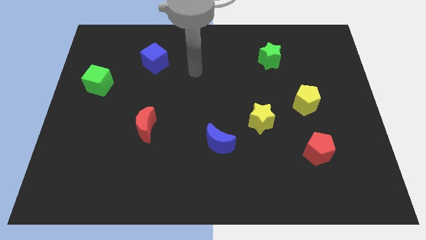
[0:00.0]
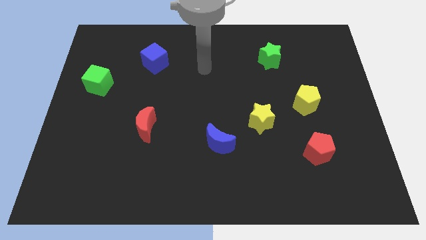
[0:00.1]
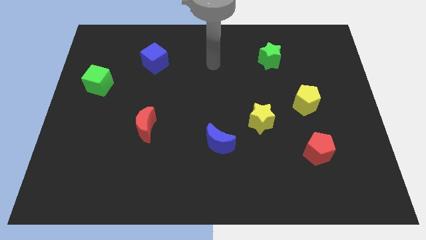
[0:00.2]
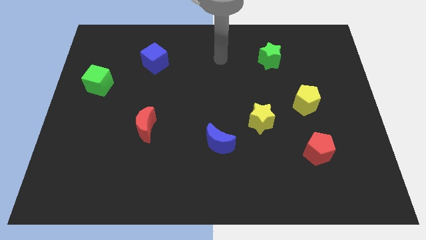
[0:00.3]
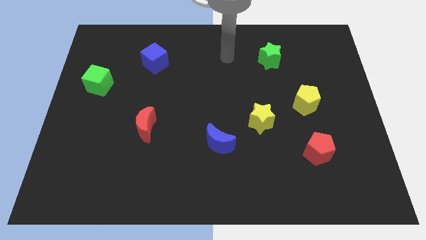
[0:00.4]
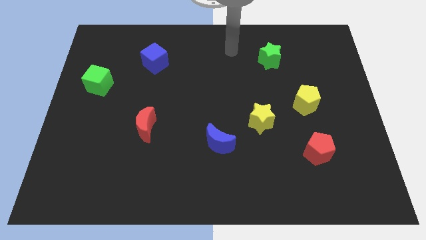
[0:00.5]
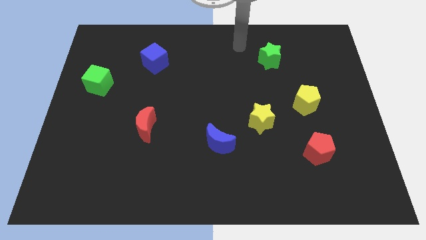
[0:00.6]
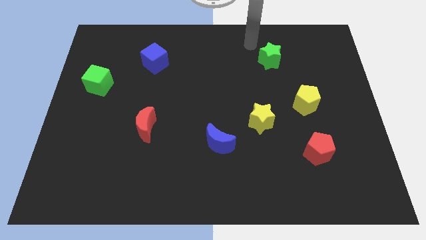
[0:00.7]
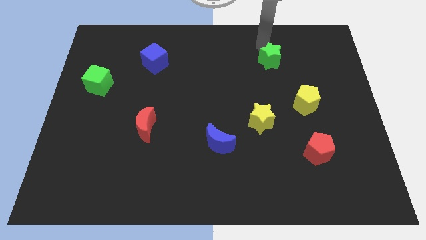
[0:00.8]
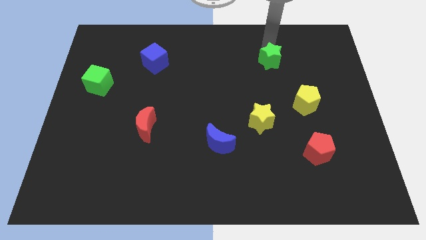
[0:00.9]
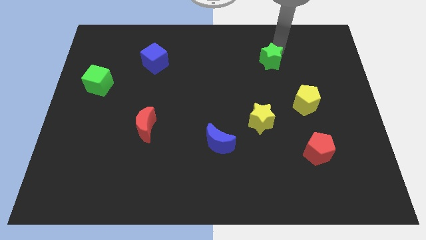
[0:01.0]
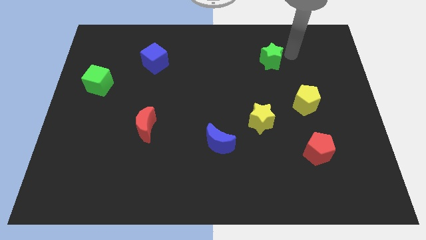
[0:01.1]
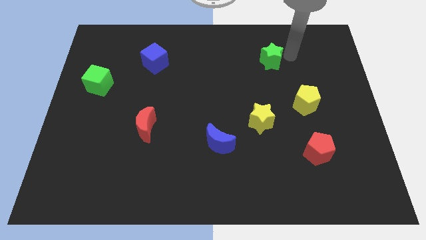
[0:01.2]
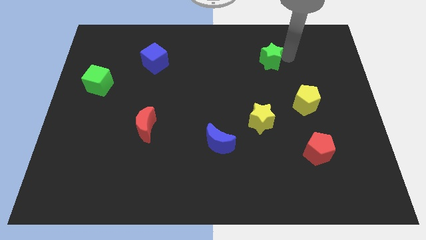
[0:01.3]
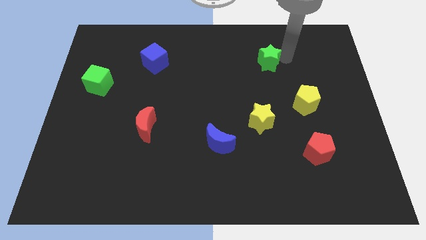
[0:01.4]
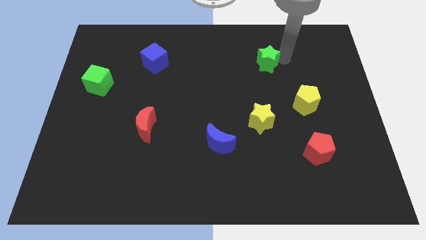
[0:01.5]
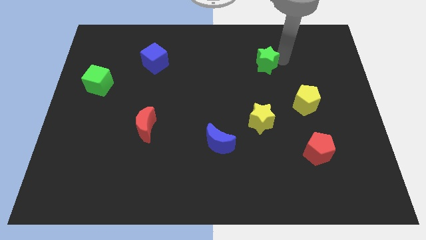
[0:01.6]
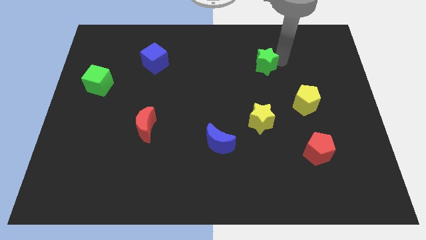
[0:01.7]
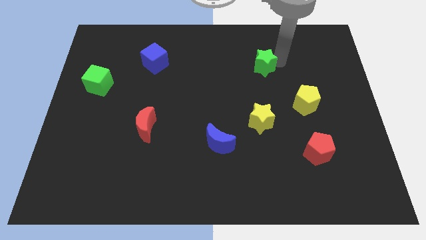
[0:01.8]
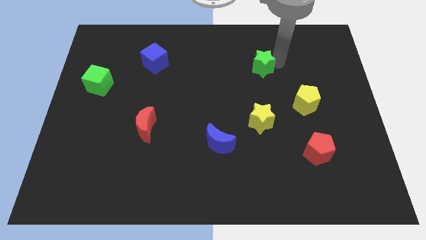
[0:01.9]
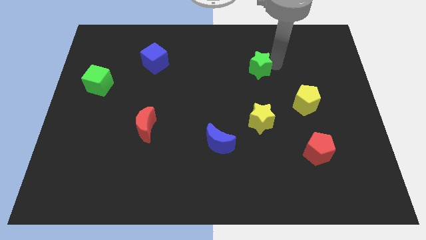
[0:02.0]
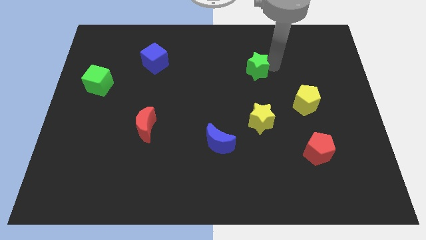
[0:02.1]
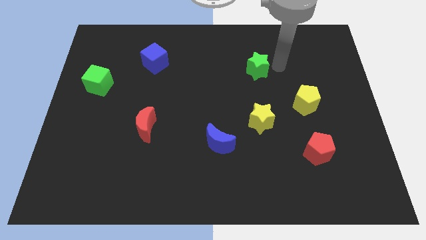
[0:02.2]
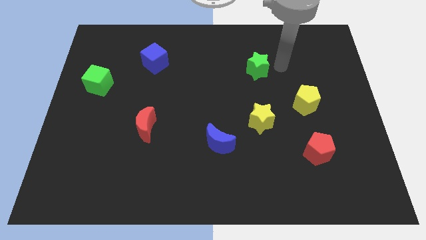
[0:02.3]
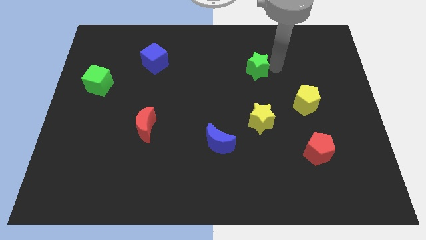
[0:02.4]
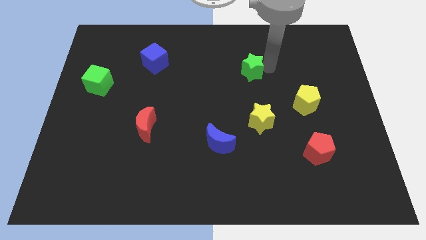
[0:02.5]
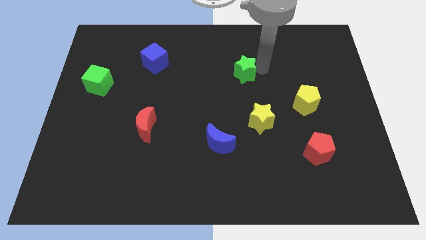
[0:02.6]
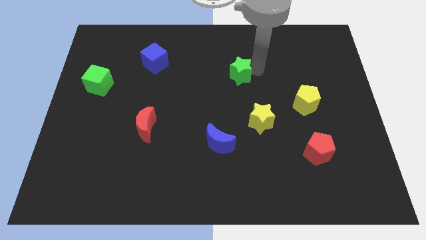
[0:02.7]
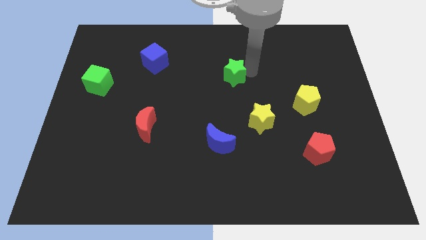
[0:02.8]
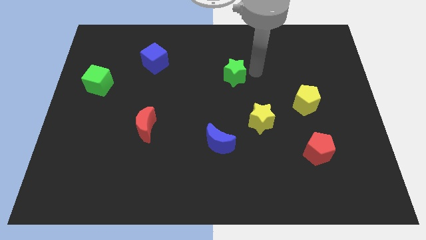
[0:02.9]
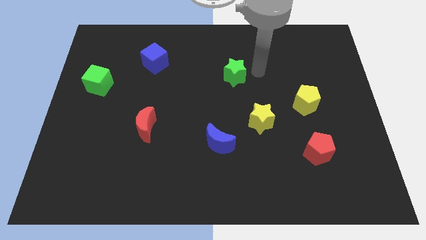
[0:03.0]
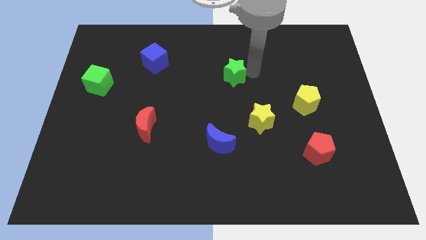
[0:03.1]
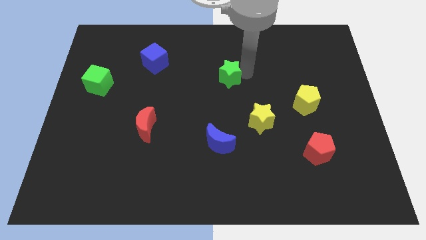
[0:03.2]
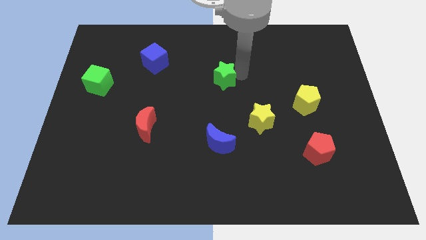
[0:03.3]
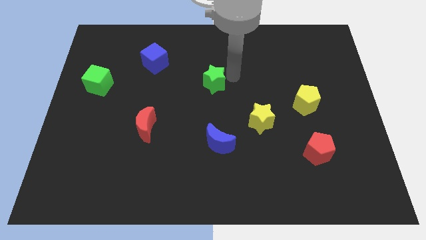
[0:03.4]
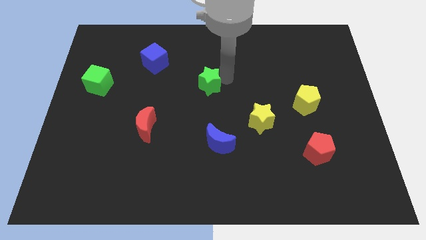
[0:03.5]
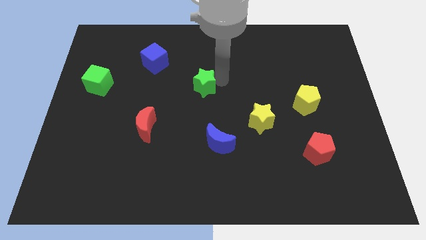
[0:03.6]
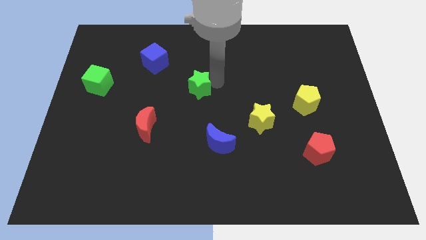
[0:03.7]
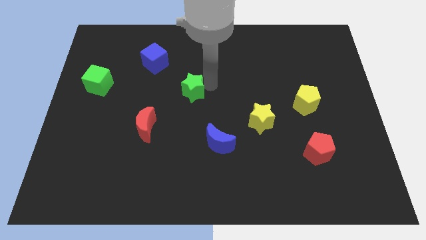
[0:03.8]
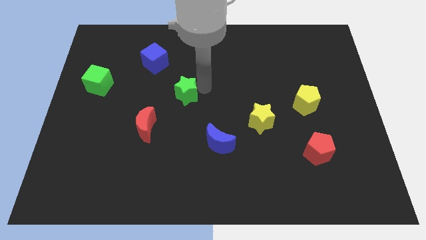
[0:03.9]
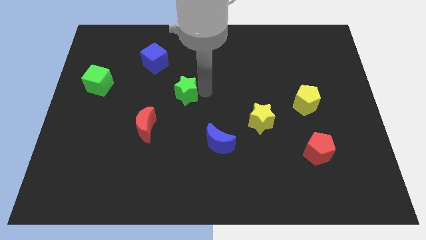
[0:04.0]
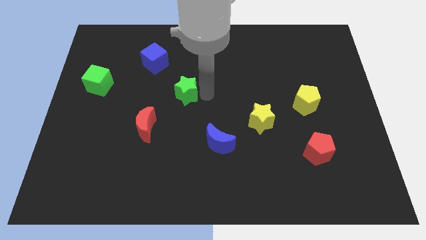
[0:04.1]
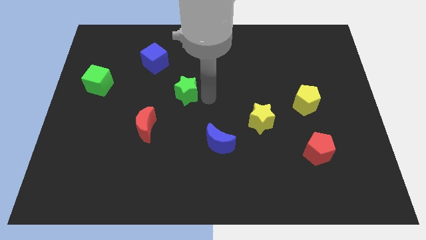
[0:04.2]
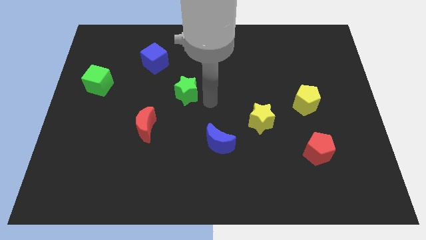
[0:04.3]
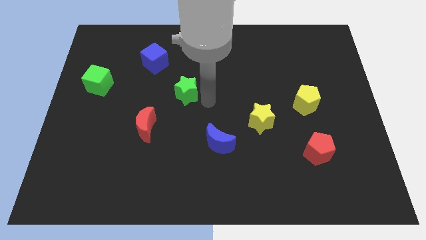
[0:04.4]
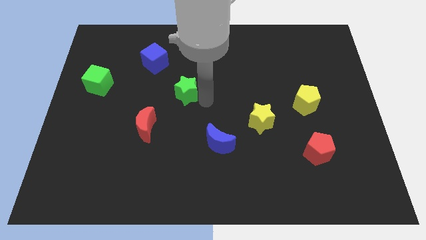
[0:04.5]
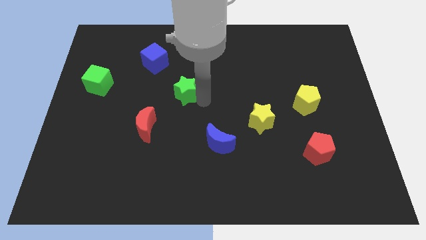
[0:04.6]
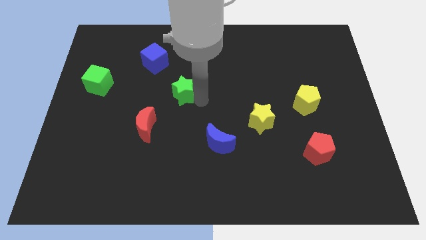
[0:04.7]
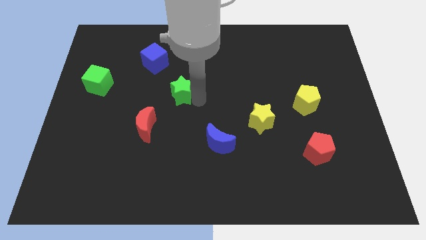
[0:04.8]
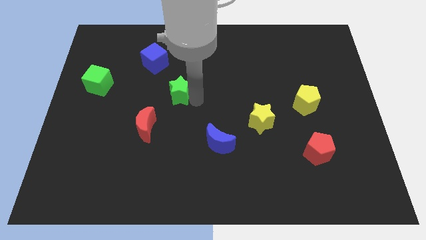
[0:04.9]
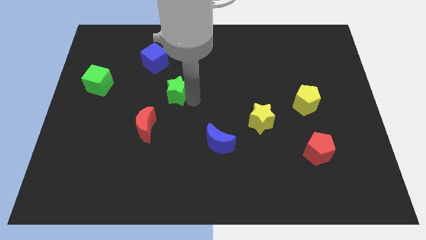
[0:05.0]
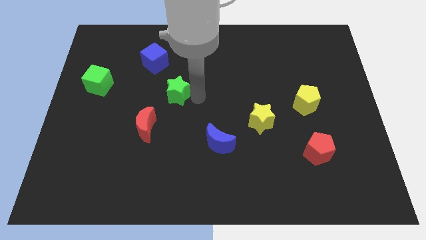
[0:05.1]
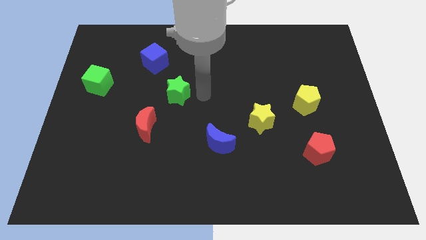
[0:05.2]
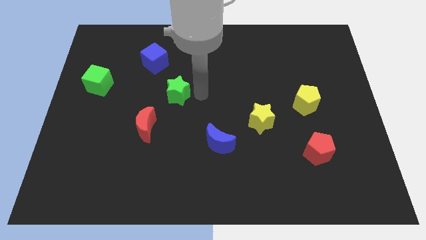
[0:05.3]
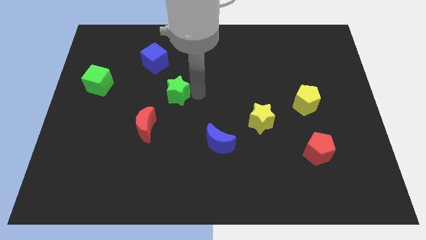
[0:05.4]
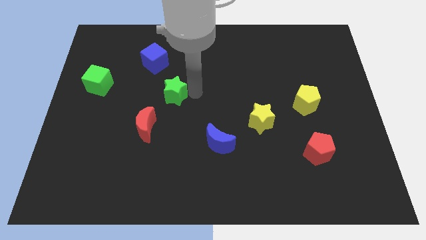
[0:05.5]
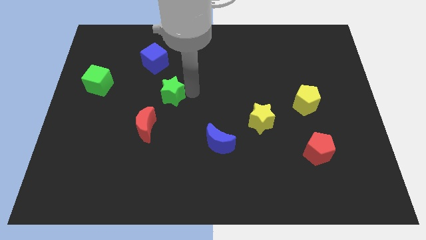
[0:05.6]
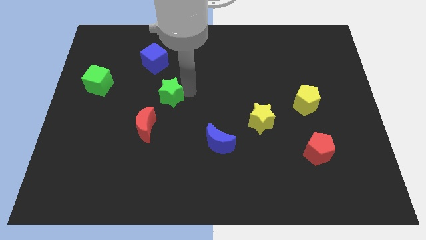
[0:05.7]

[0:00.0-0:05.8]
move the green star to the top of the red moon

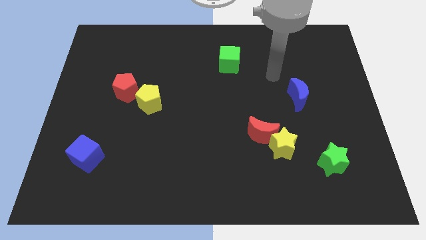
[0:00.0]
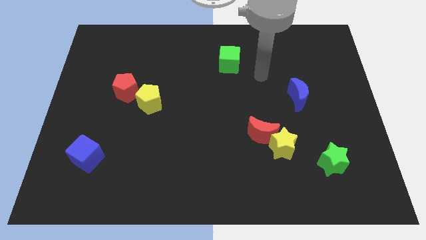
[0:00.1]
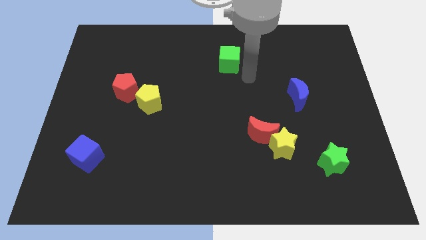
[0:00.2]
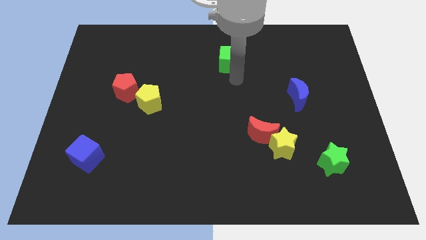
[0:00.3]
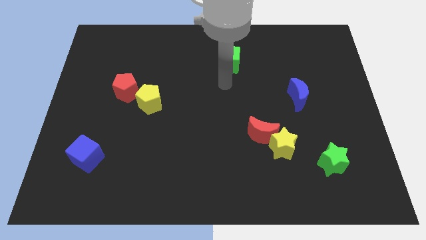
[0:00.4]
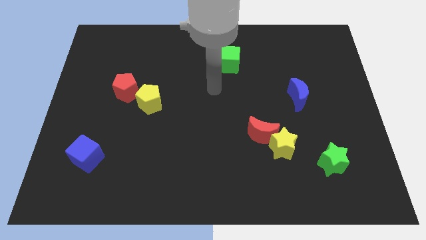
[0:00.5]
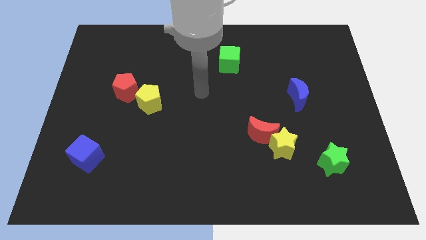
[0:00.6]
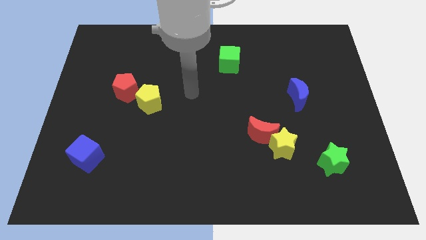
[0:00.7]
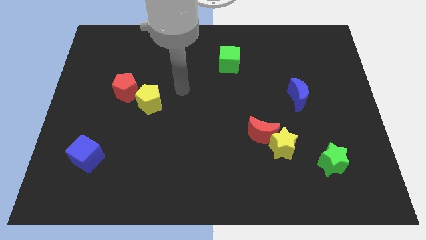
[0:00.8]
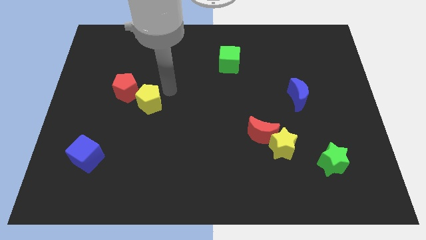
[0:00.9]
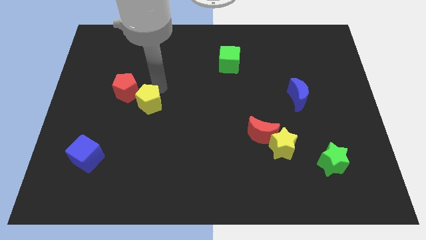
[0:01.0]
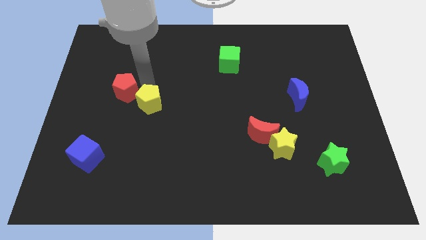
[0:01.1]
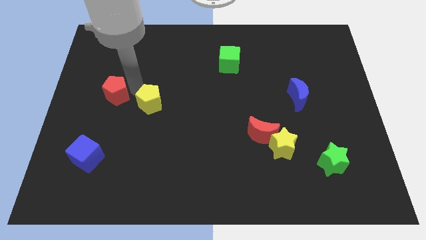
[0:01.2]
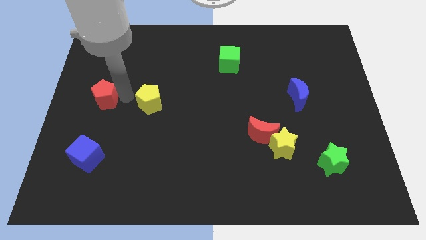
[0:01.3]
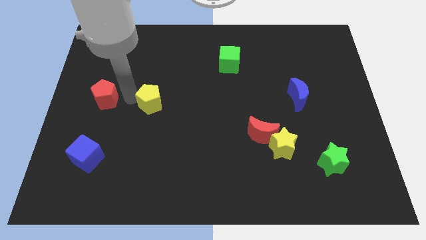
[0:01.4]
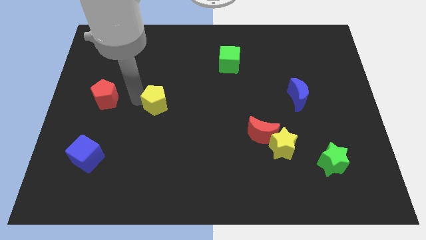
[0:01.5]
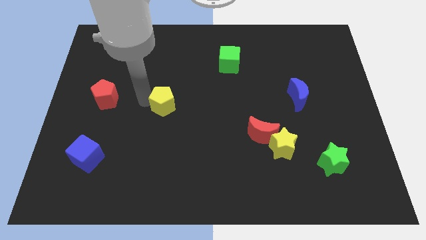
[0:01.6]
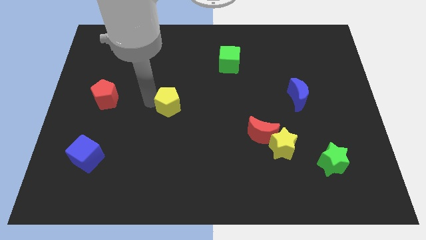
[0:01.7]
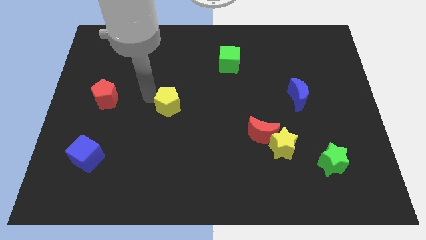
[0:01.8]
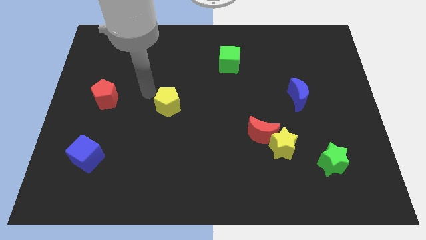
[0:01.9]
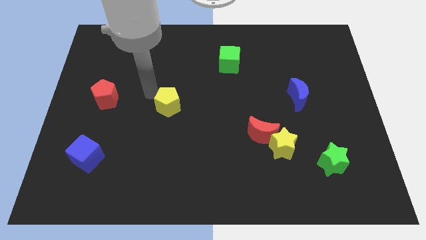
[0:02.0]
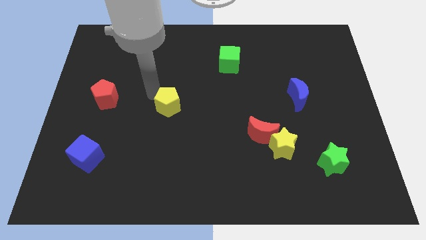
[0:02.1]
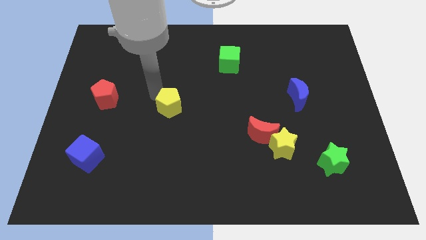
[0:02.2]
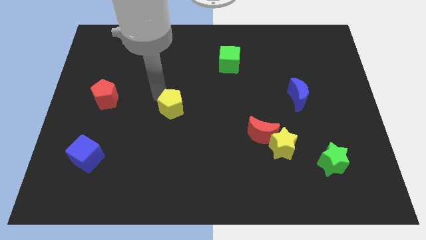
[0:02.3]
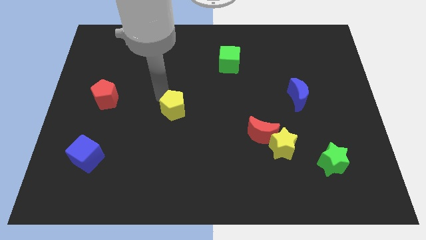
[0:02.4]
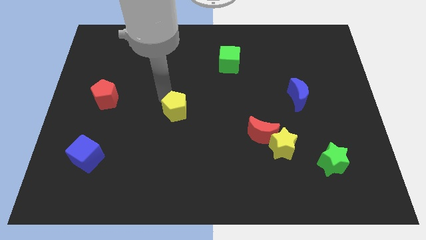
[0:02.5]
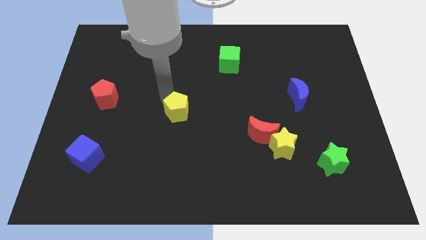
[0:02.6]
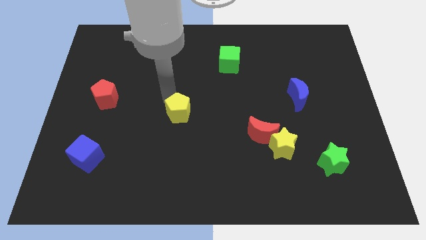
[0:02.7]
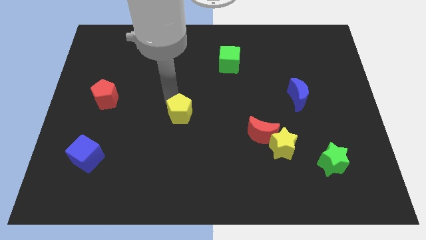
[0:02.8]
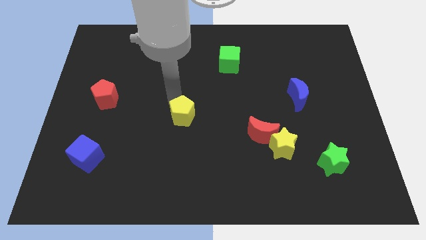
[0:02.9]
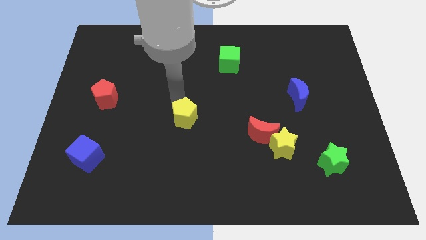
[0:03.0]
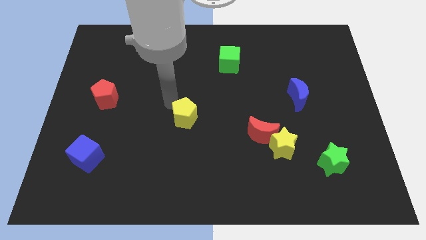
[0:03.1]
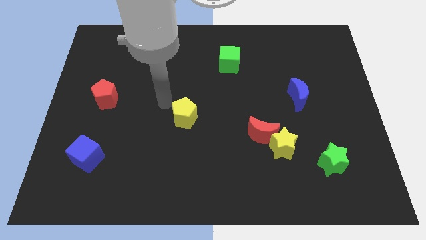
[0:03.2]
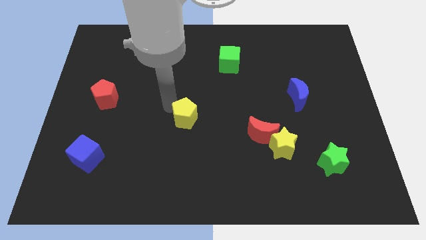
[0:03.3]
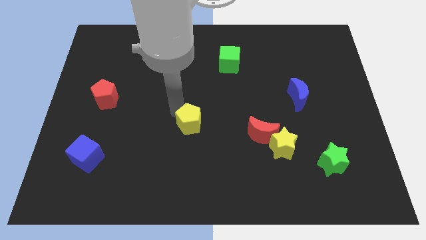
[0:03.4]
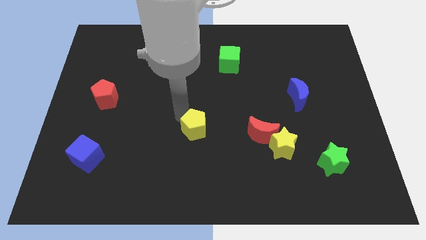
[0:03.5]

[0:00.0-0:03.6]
move the yellow pentagon left of the red moon
